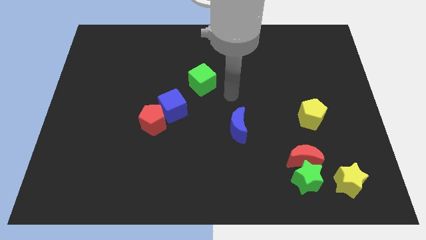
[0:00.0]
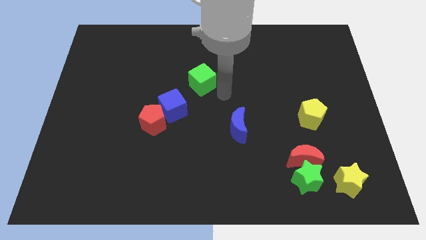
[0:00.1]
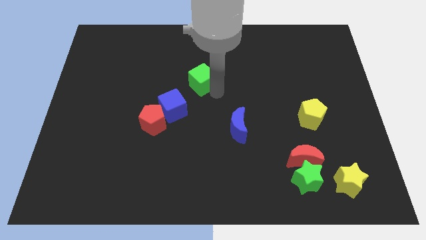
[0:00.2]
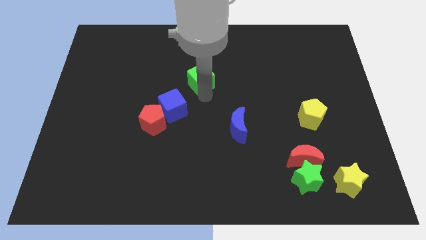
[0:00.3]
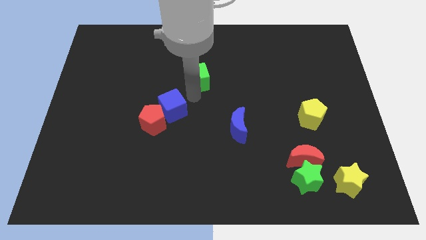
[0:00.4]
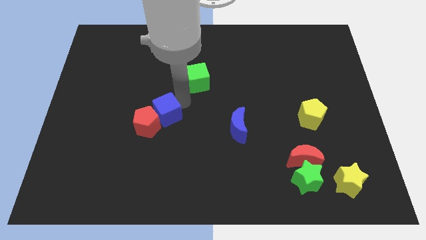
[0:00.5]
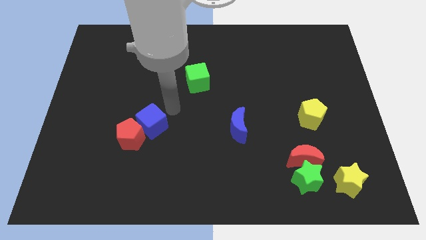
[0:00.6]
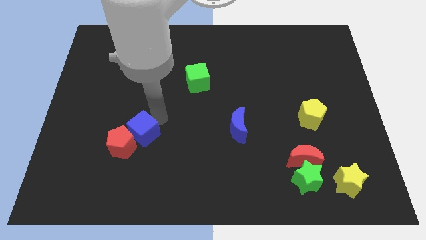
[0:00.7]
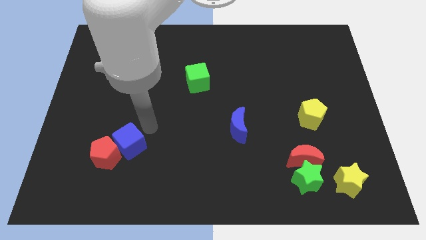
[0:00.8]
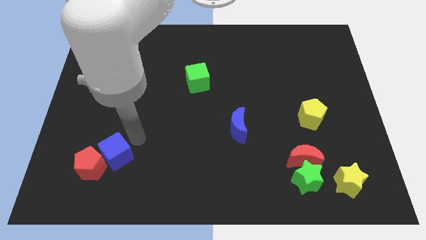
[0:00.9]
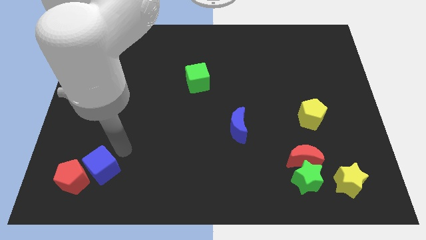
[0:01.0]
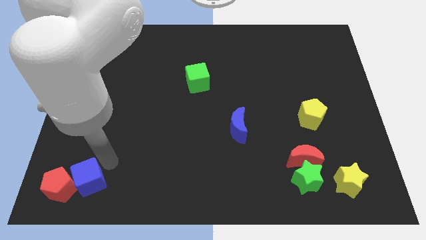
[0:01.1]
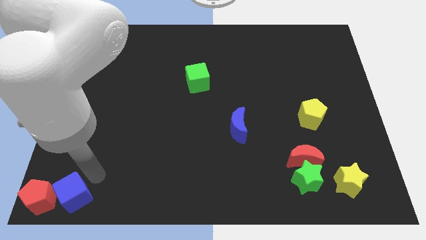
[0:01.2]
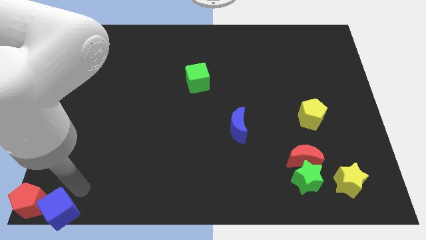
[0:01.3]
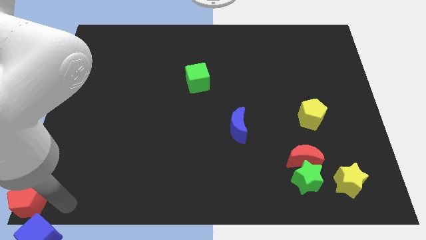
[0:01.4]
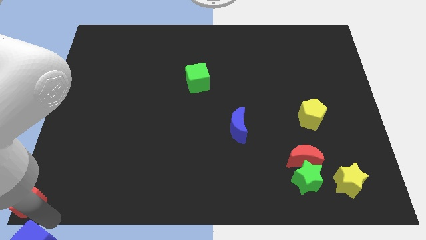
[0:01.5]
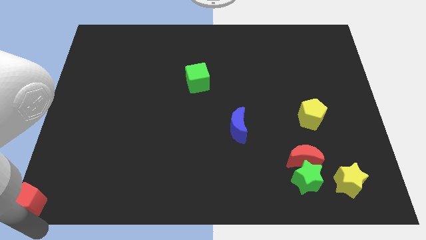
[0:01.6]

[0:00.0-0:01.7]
separate the red pentagon from the blue cube

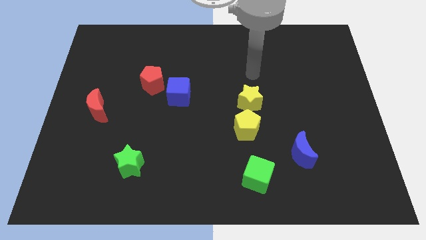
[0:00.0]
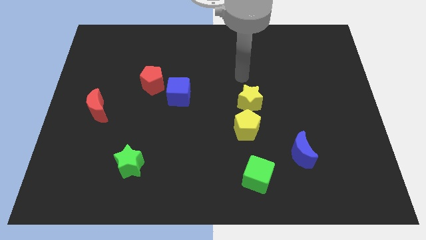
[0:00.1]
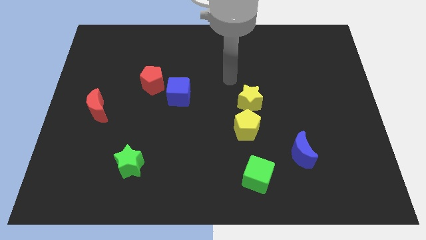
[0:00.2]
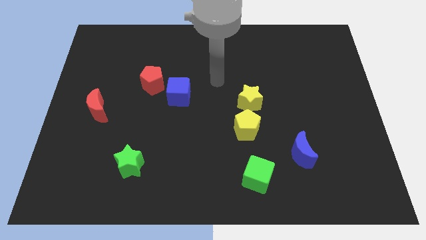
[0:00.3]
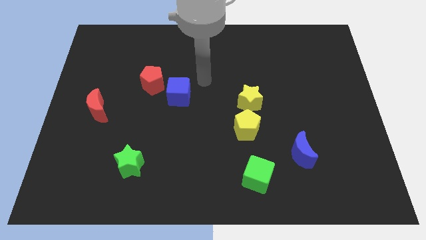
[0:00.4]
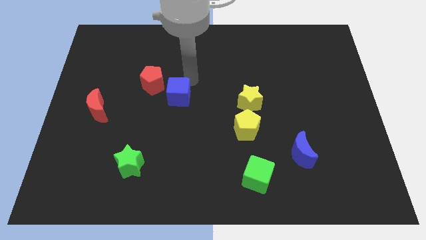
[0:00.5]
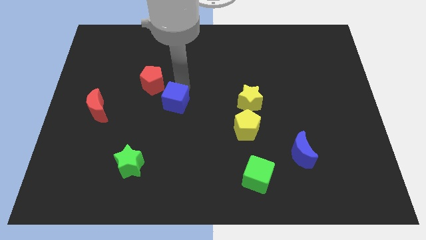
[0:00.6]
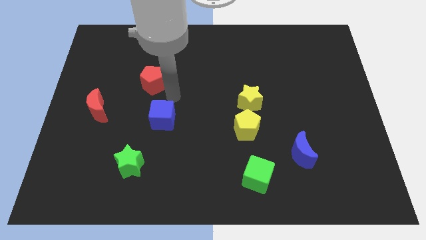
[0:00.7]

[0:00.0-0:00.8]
pull the red pentagon apart from the blue cube

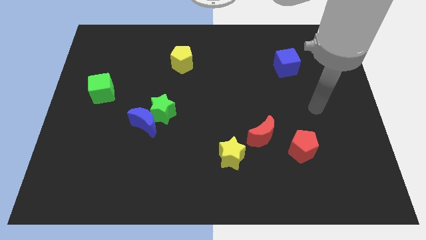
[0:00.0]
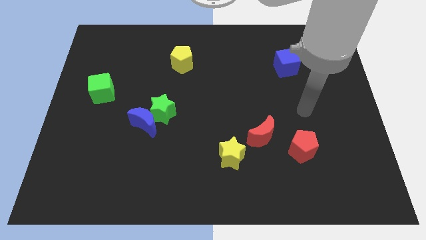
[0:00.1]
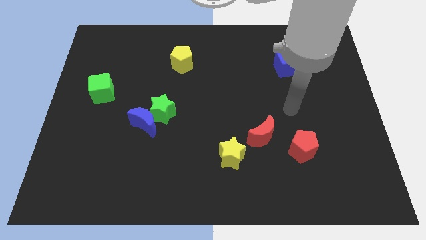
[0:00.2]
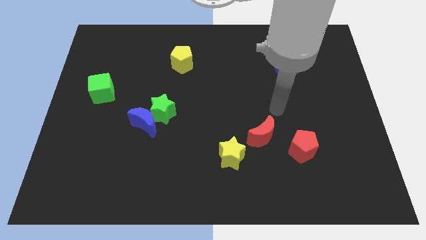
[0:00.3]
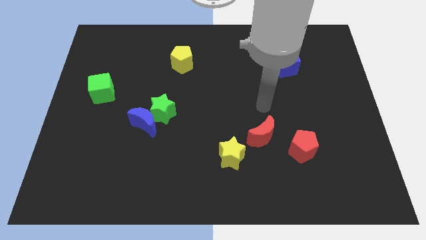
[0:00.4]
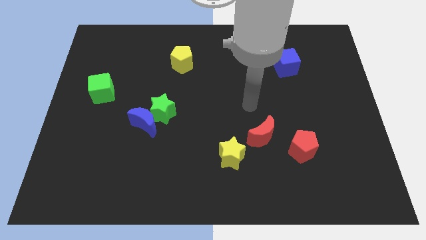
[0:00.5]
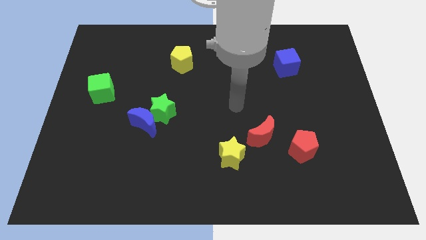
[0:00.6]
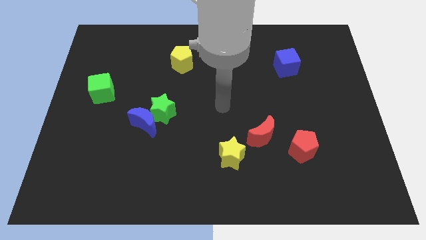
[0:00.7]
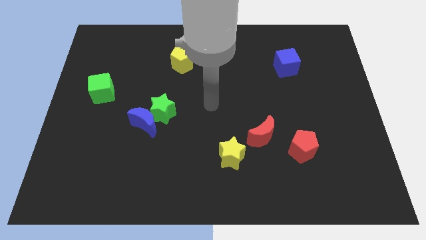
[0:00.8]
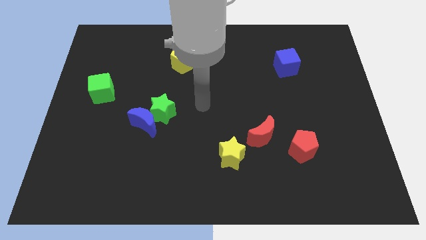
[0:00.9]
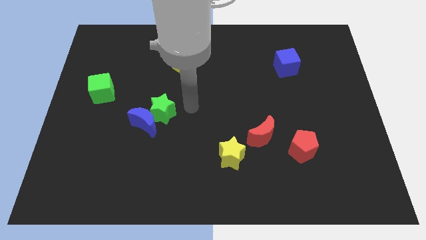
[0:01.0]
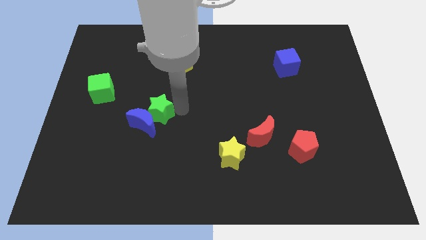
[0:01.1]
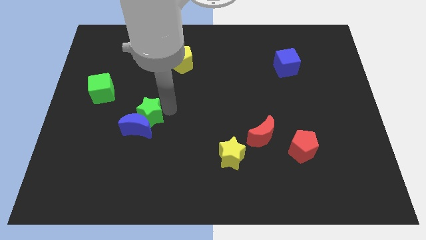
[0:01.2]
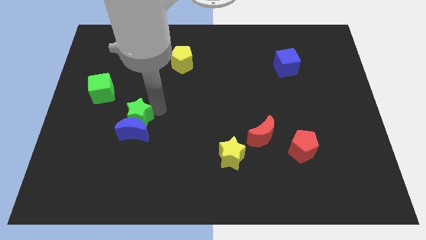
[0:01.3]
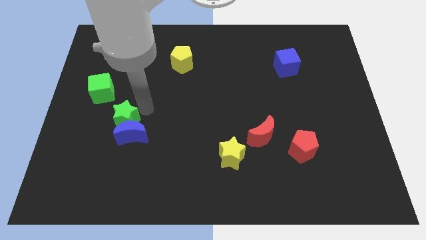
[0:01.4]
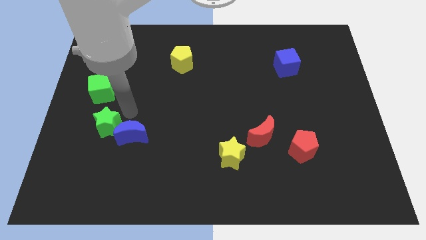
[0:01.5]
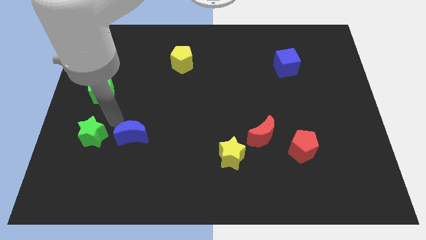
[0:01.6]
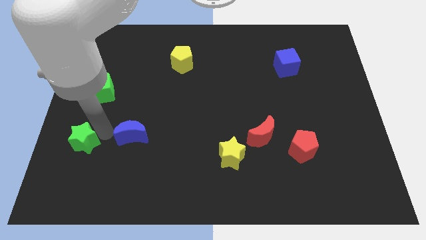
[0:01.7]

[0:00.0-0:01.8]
move the blue moon away from the green star

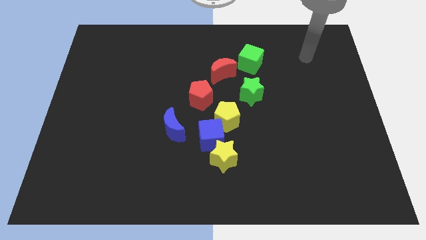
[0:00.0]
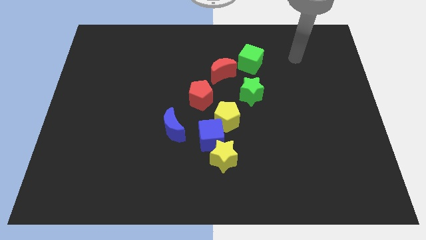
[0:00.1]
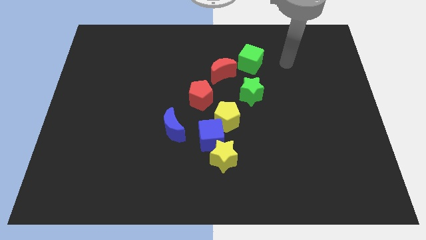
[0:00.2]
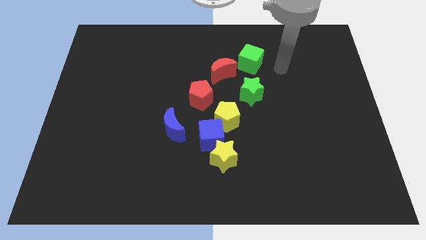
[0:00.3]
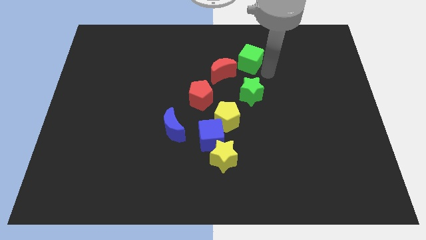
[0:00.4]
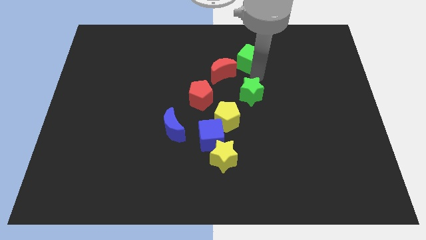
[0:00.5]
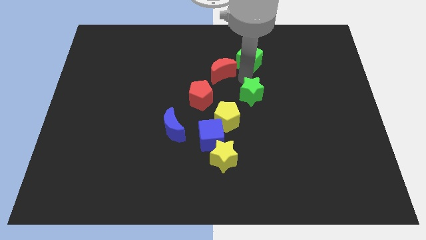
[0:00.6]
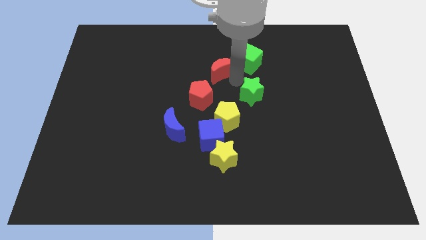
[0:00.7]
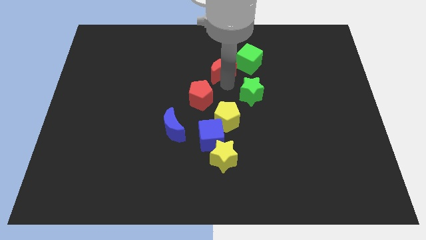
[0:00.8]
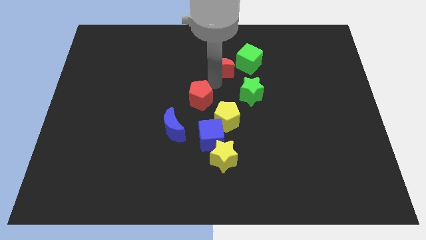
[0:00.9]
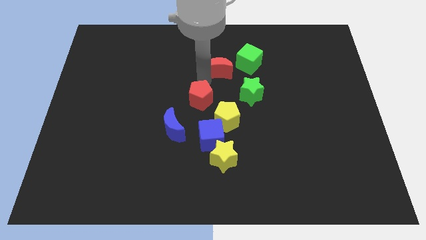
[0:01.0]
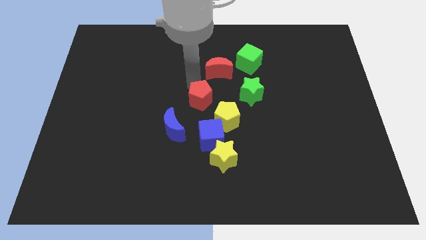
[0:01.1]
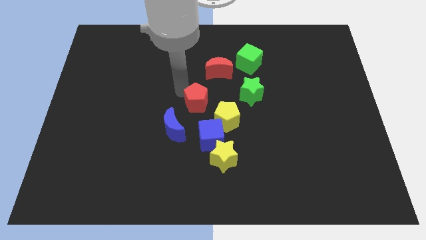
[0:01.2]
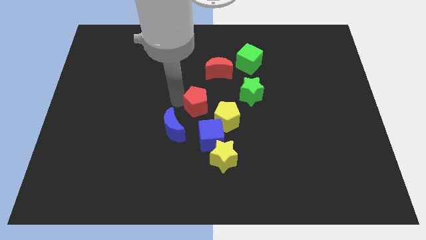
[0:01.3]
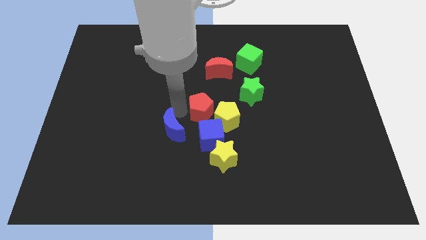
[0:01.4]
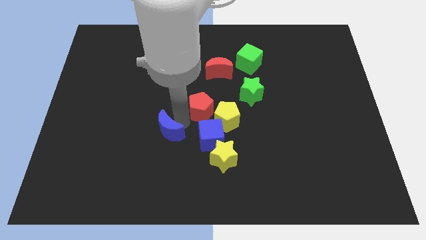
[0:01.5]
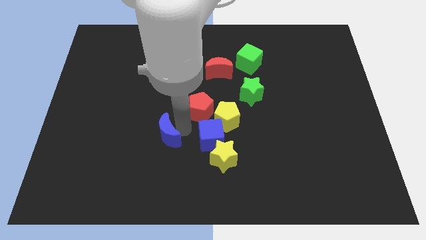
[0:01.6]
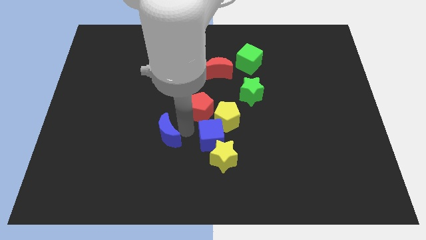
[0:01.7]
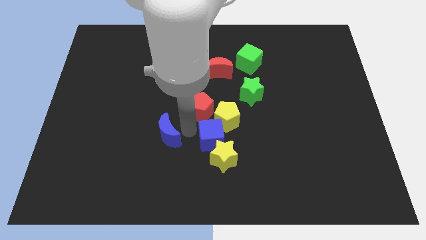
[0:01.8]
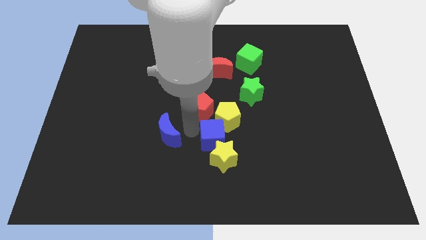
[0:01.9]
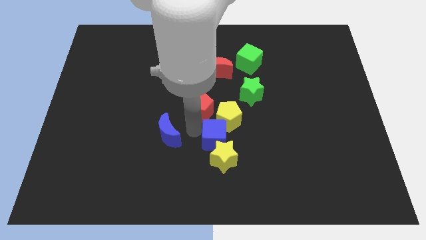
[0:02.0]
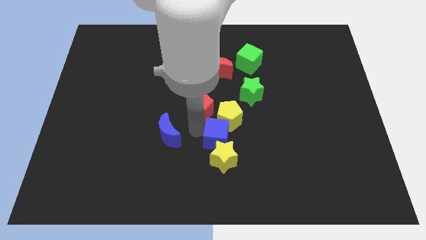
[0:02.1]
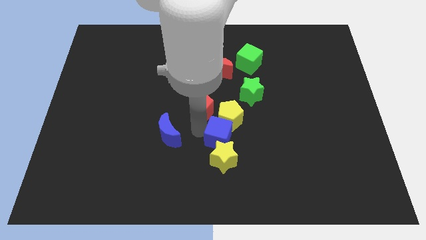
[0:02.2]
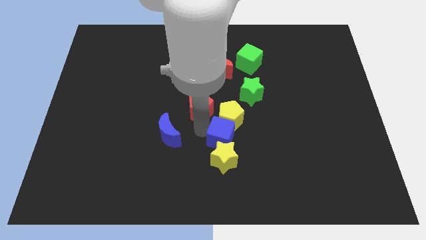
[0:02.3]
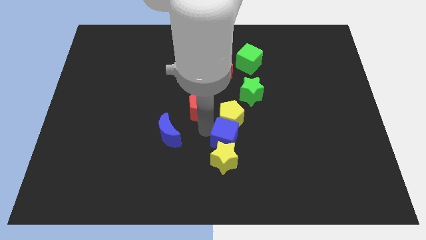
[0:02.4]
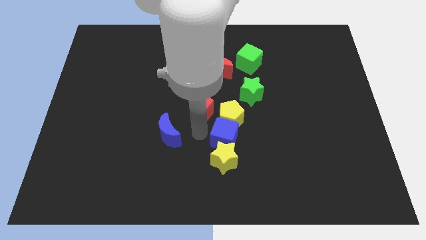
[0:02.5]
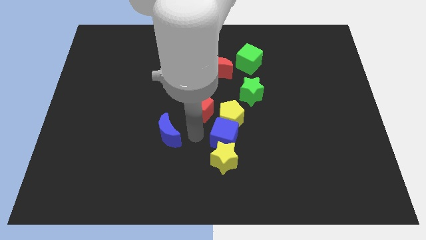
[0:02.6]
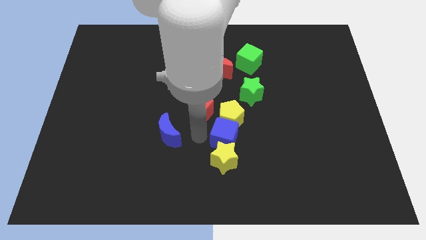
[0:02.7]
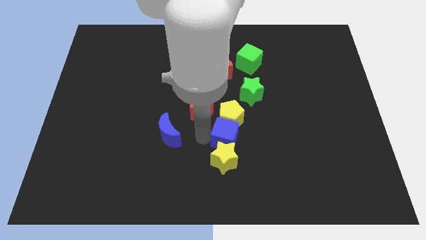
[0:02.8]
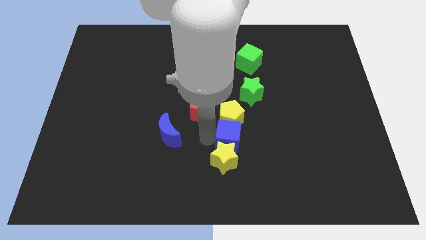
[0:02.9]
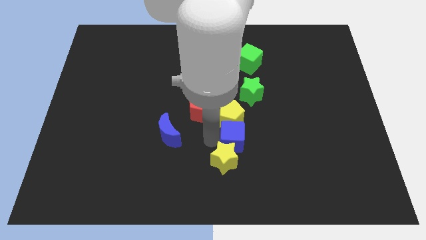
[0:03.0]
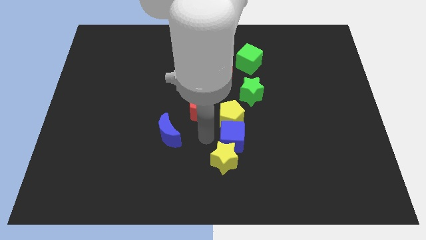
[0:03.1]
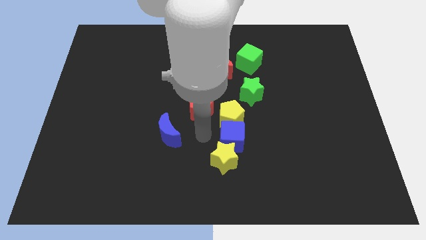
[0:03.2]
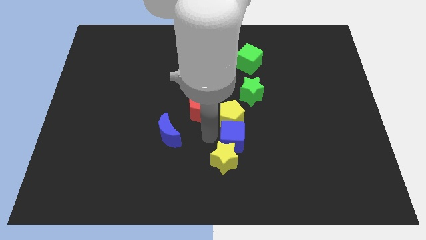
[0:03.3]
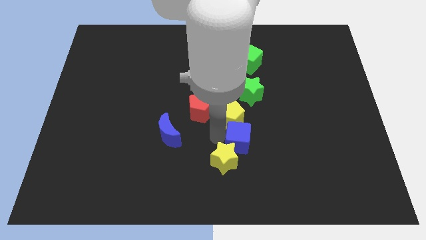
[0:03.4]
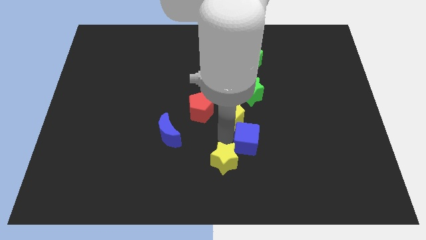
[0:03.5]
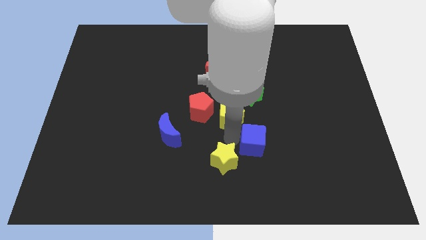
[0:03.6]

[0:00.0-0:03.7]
separate the blue cube from the group

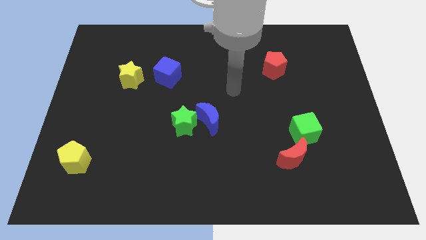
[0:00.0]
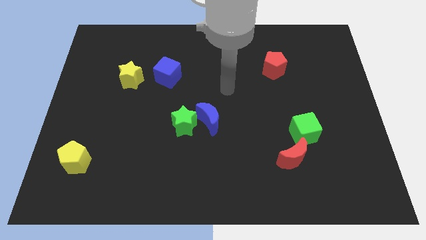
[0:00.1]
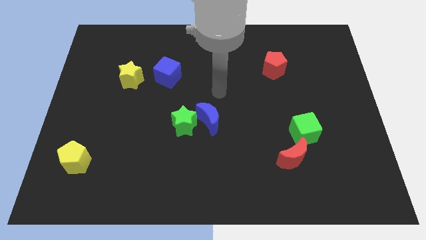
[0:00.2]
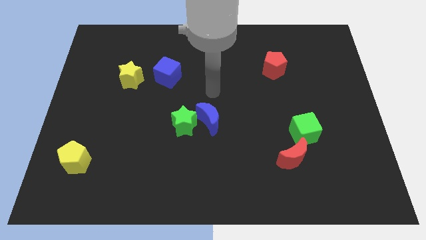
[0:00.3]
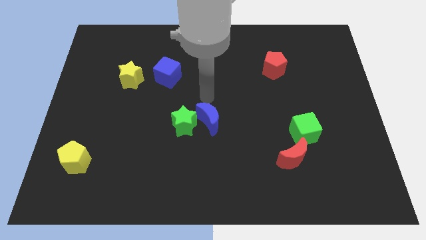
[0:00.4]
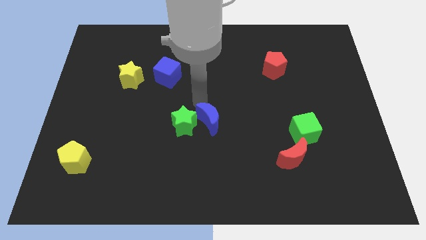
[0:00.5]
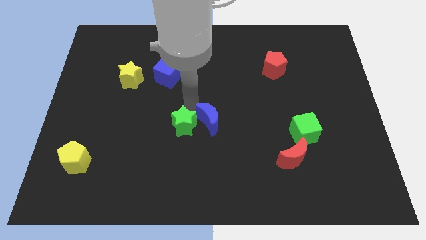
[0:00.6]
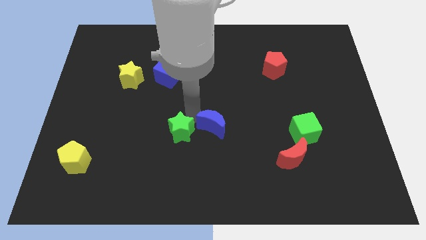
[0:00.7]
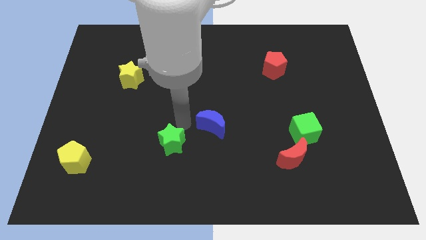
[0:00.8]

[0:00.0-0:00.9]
pull the blue moon apart from the green star

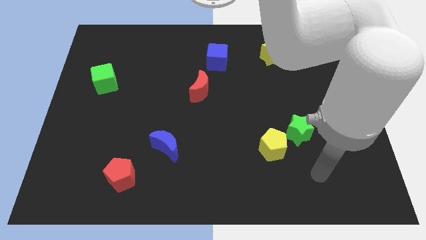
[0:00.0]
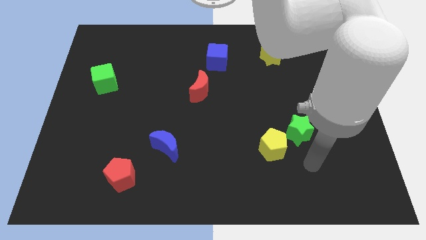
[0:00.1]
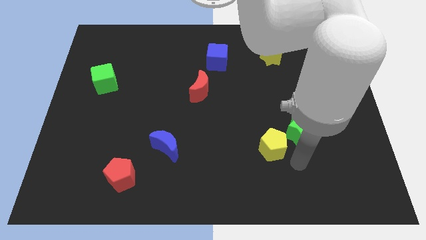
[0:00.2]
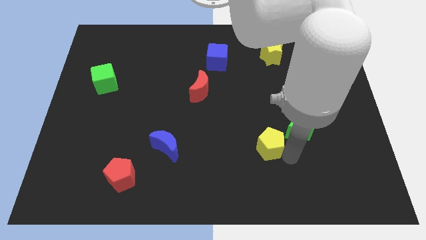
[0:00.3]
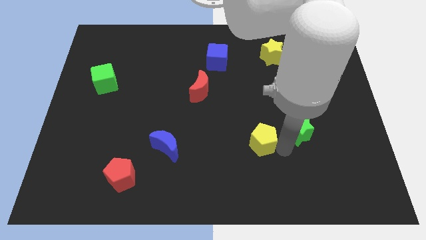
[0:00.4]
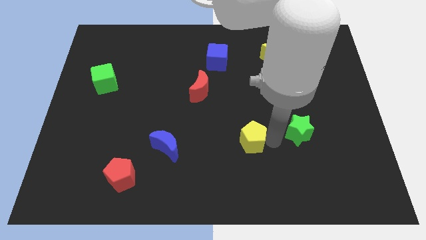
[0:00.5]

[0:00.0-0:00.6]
separate the green star from the yellow pentagon
